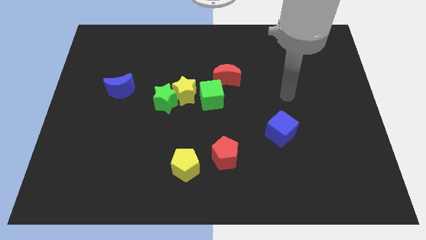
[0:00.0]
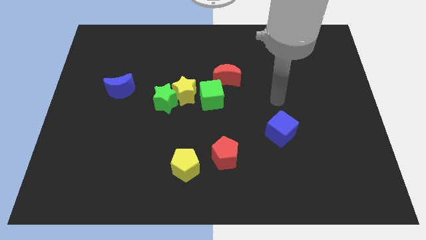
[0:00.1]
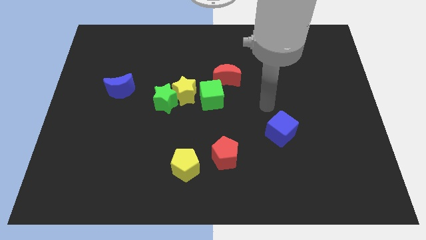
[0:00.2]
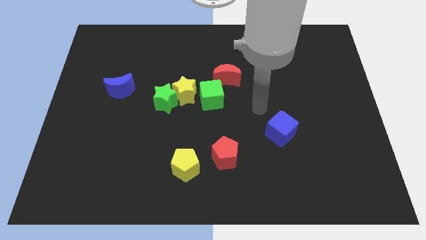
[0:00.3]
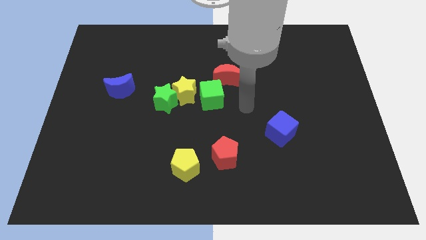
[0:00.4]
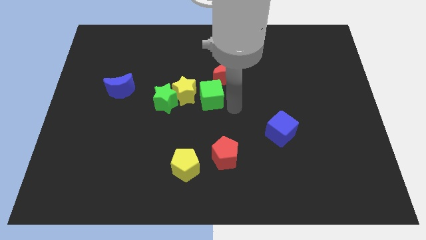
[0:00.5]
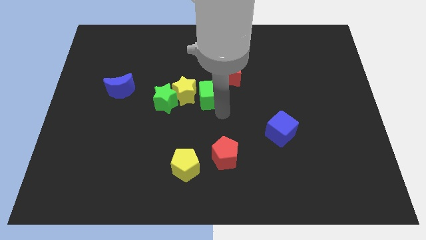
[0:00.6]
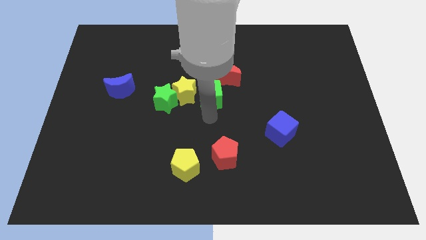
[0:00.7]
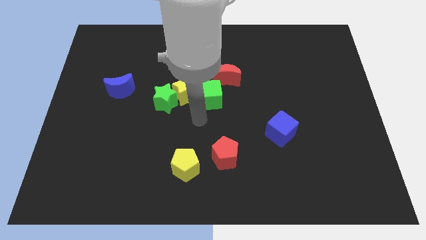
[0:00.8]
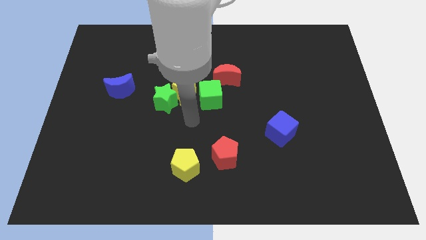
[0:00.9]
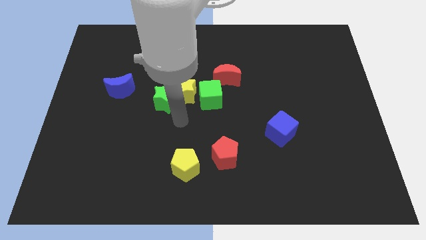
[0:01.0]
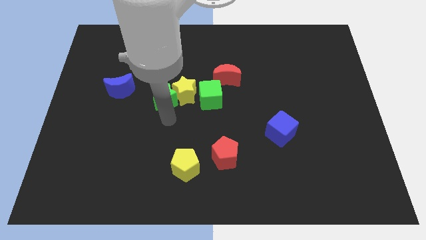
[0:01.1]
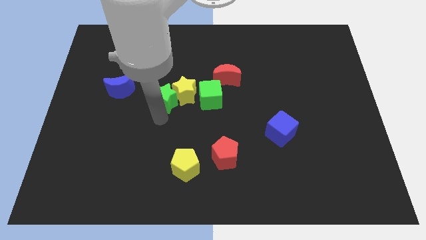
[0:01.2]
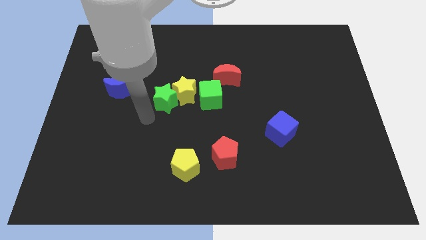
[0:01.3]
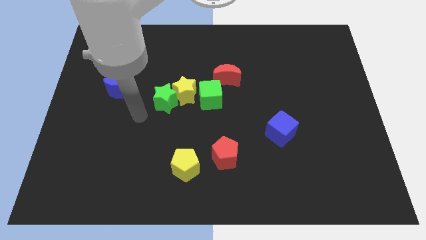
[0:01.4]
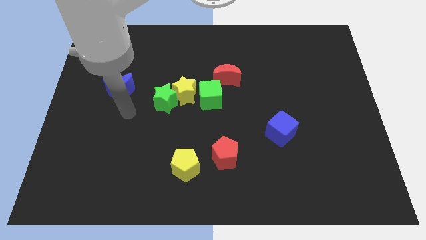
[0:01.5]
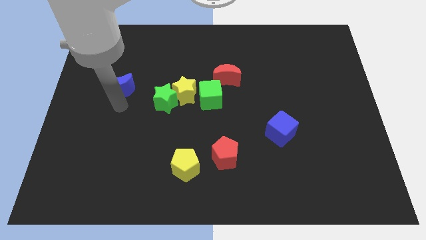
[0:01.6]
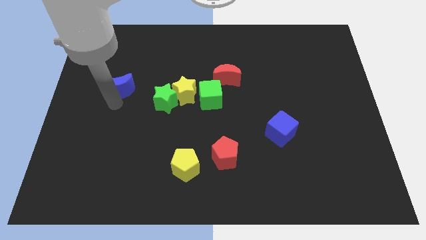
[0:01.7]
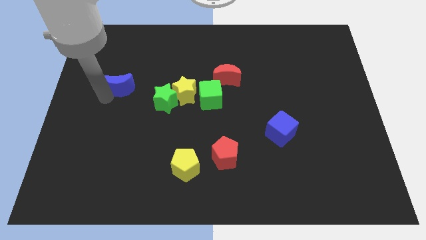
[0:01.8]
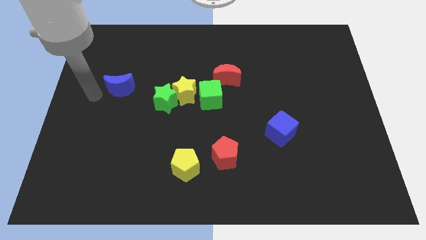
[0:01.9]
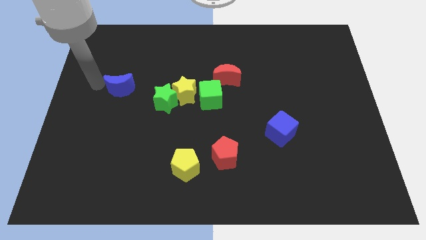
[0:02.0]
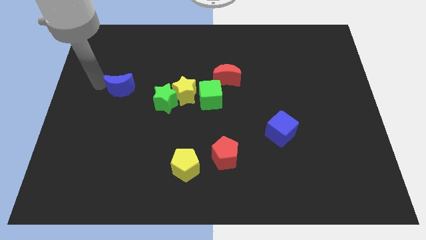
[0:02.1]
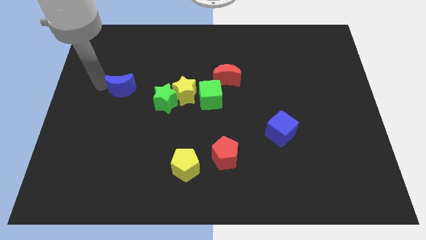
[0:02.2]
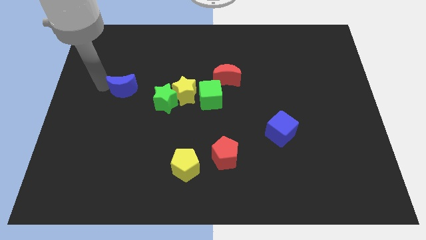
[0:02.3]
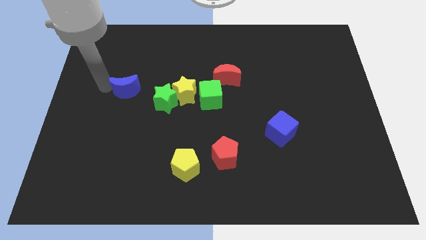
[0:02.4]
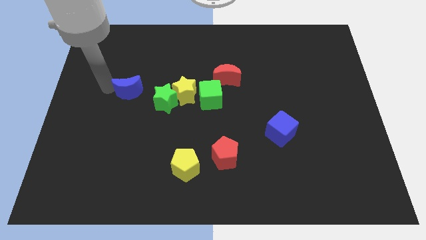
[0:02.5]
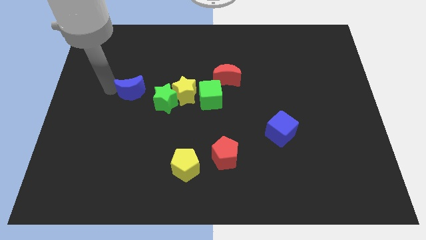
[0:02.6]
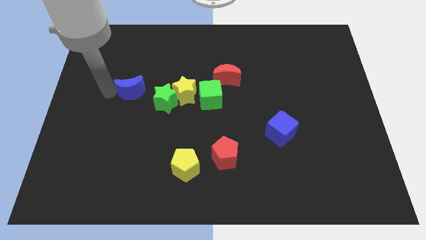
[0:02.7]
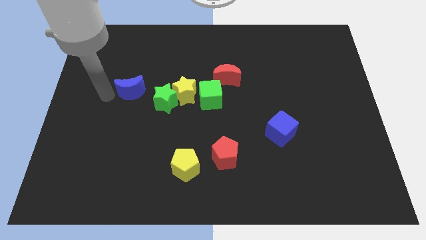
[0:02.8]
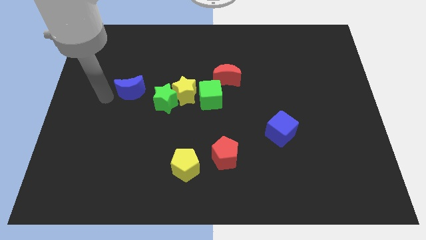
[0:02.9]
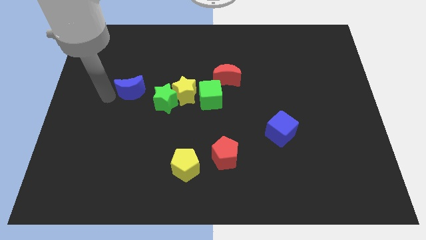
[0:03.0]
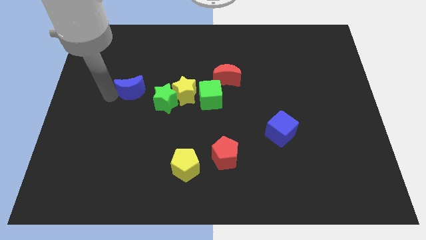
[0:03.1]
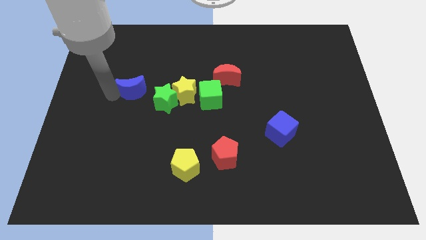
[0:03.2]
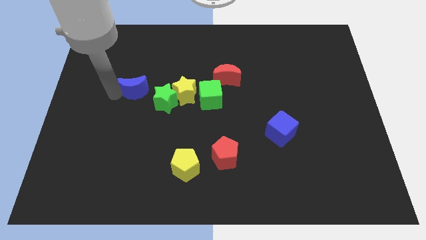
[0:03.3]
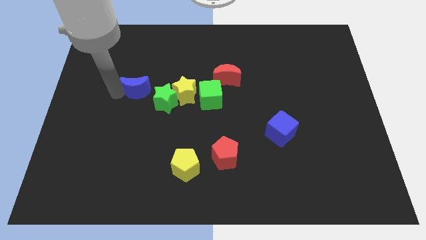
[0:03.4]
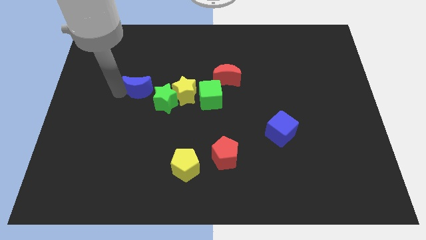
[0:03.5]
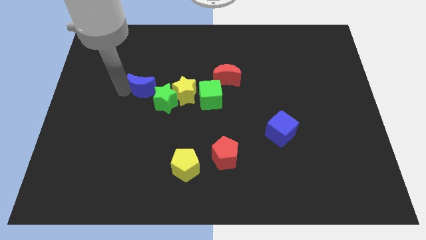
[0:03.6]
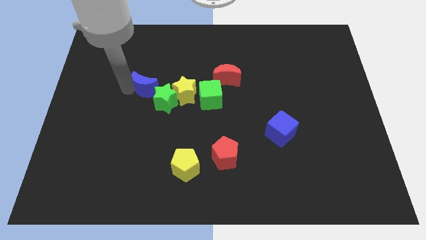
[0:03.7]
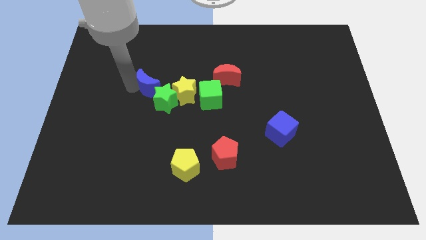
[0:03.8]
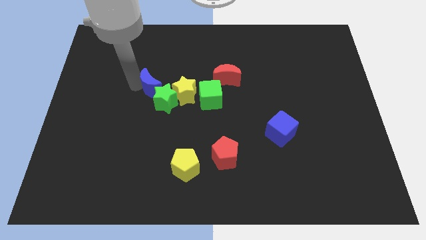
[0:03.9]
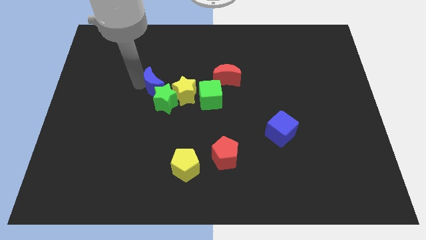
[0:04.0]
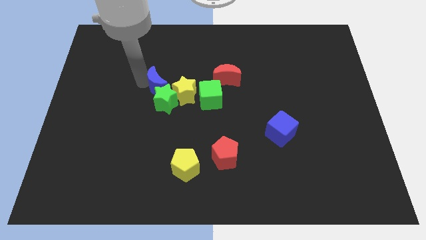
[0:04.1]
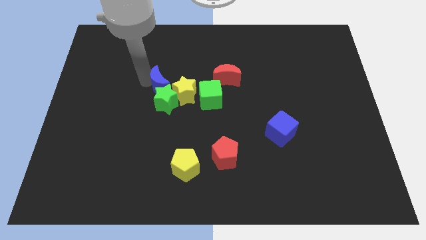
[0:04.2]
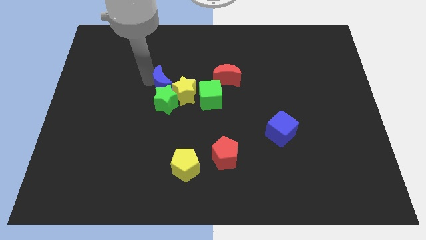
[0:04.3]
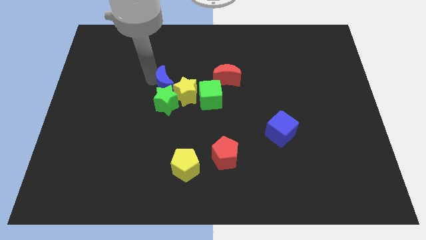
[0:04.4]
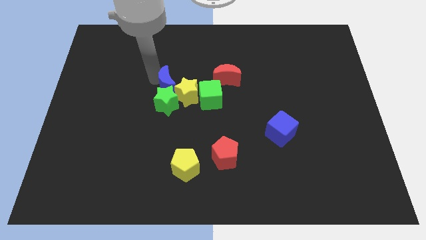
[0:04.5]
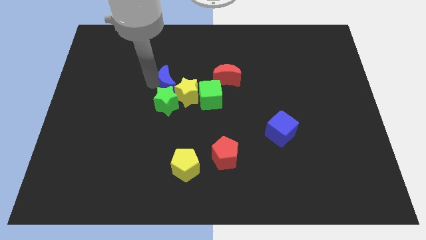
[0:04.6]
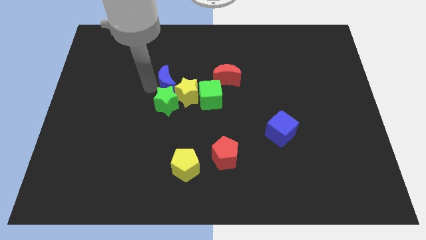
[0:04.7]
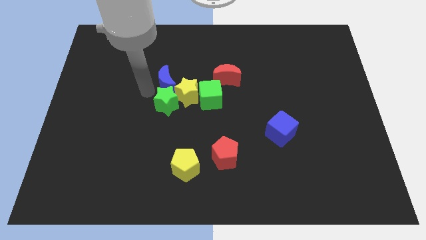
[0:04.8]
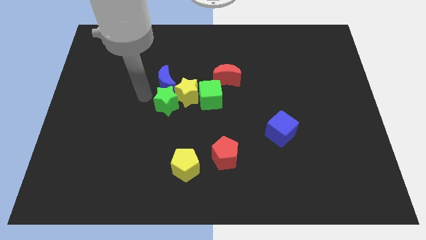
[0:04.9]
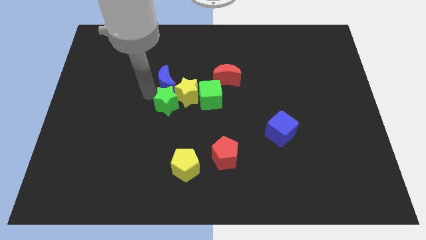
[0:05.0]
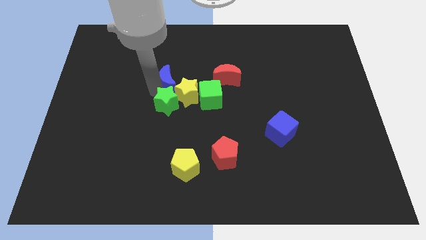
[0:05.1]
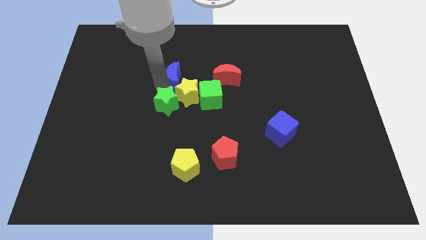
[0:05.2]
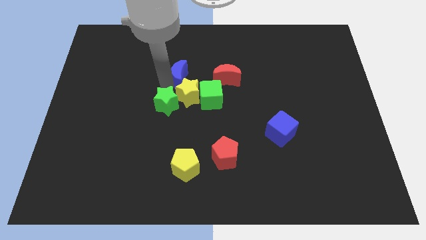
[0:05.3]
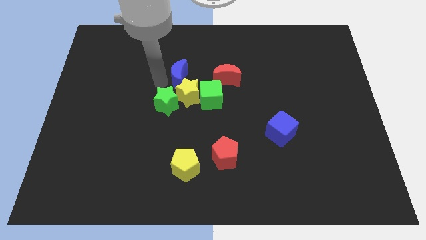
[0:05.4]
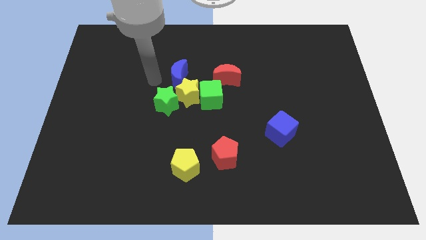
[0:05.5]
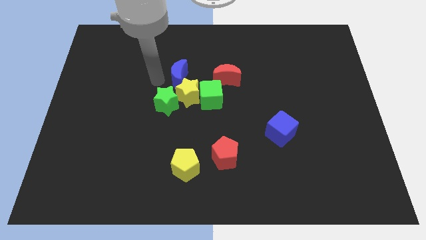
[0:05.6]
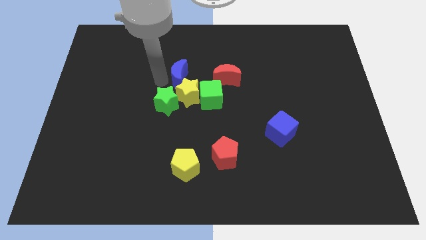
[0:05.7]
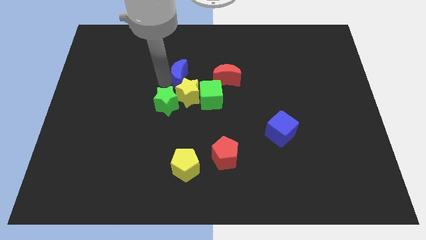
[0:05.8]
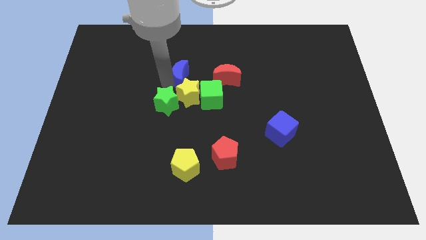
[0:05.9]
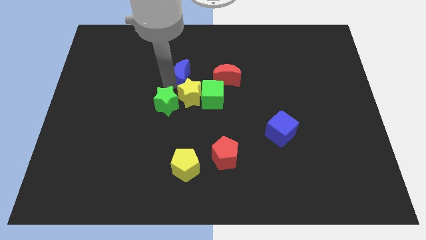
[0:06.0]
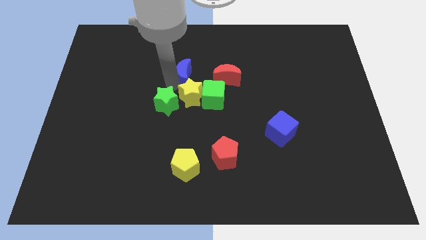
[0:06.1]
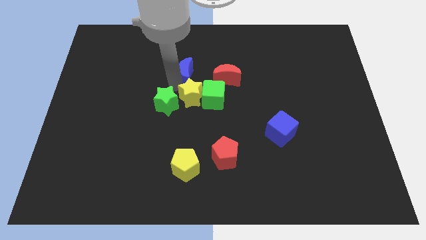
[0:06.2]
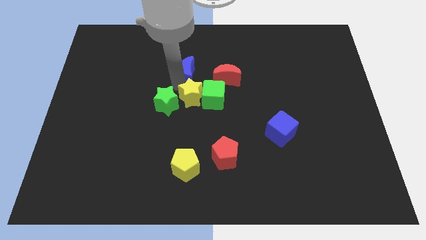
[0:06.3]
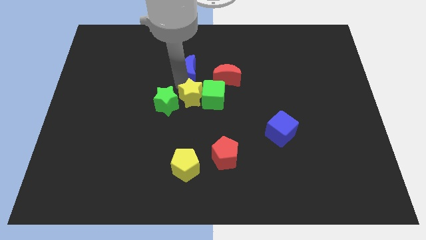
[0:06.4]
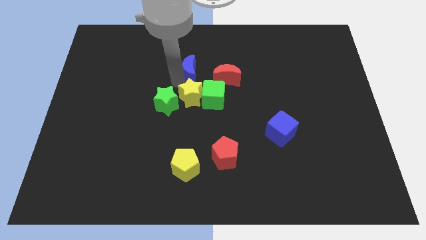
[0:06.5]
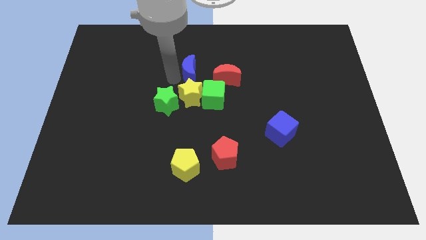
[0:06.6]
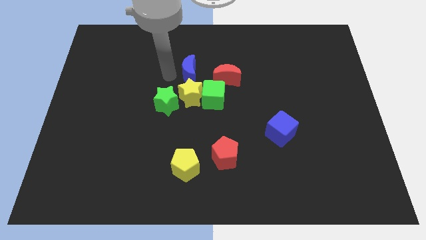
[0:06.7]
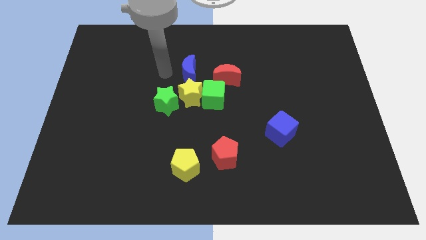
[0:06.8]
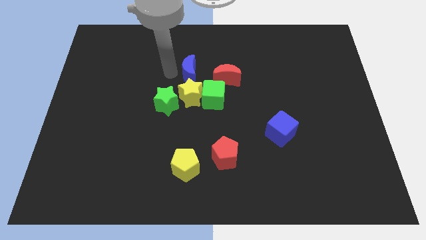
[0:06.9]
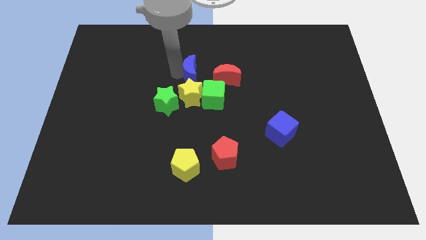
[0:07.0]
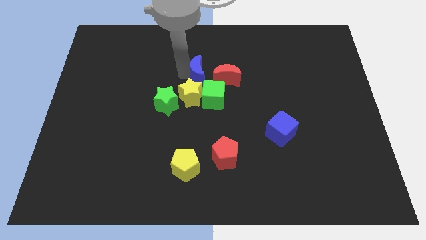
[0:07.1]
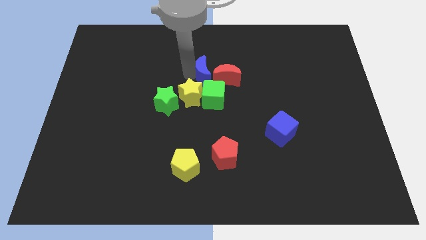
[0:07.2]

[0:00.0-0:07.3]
push the blue moon close to the red moon
